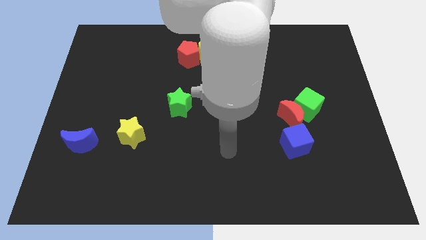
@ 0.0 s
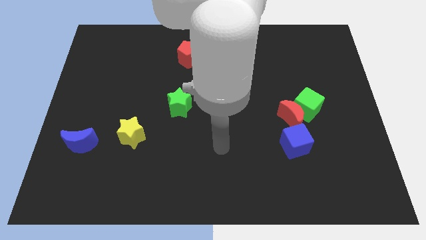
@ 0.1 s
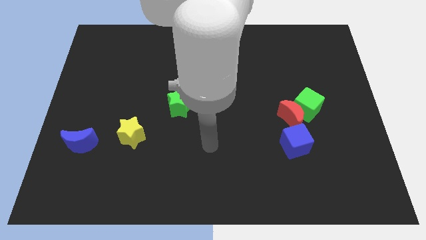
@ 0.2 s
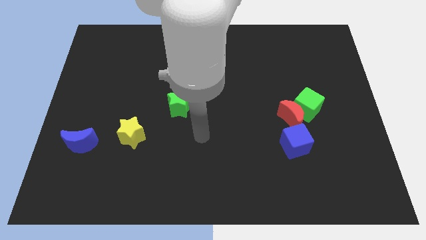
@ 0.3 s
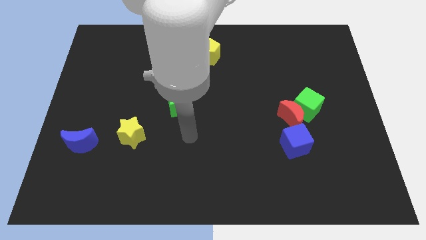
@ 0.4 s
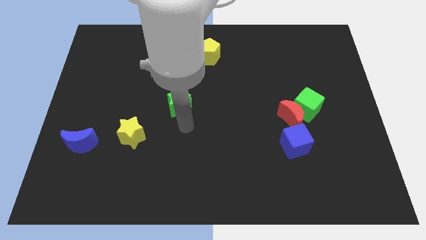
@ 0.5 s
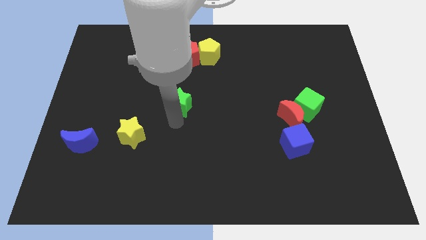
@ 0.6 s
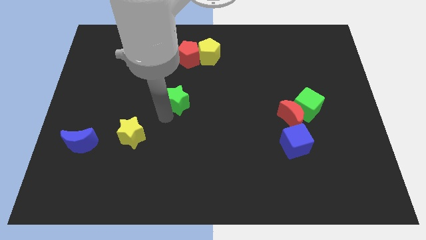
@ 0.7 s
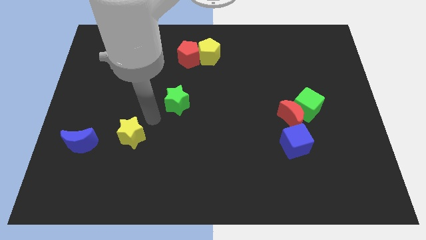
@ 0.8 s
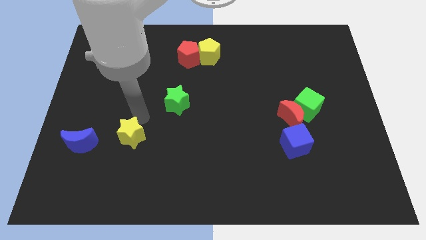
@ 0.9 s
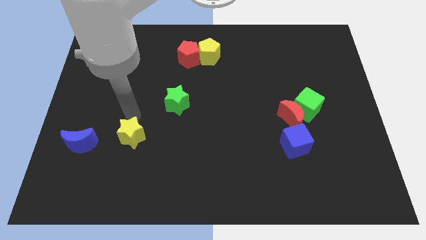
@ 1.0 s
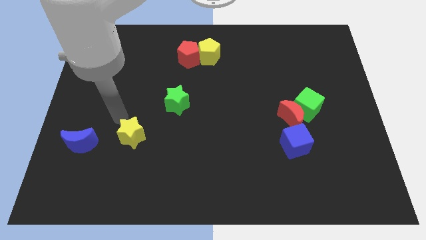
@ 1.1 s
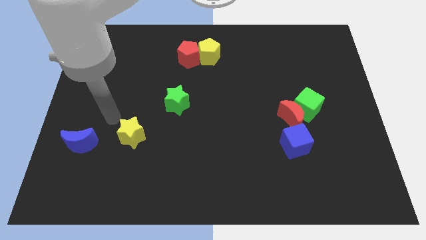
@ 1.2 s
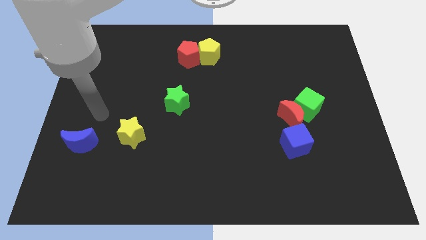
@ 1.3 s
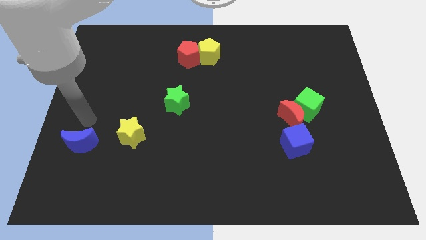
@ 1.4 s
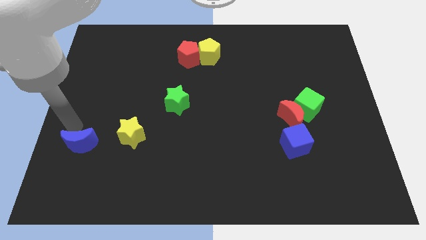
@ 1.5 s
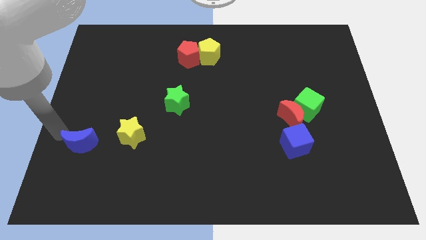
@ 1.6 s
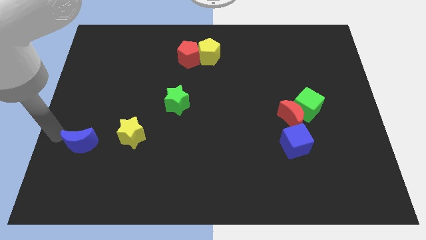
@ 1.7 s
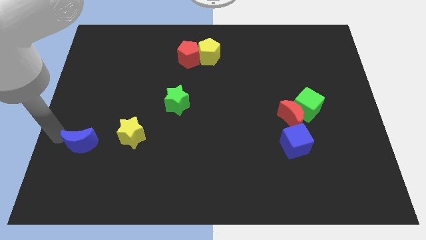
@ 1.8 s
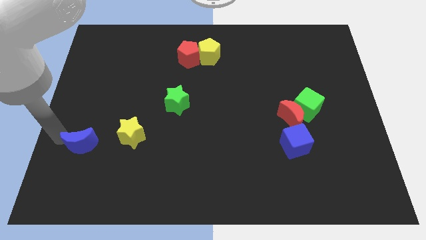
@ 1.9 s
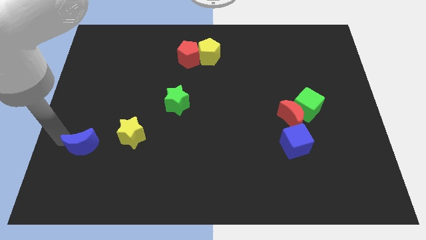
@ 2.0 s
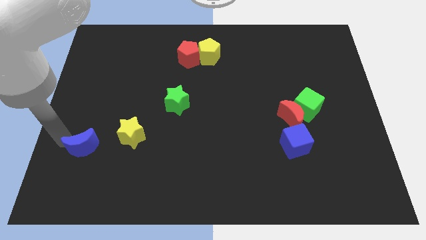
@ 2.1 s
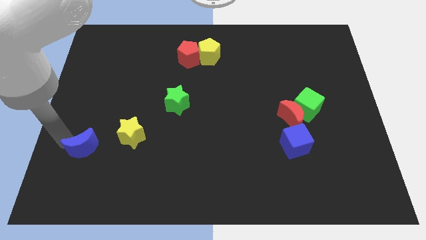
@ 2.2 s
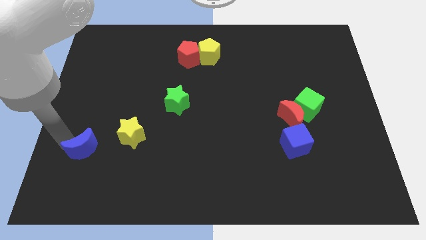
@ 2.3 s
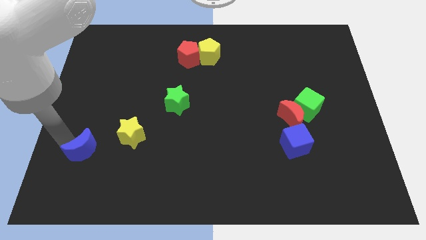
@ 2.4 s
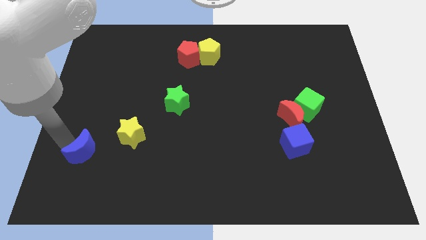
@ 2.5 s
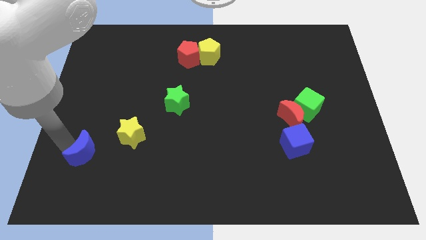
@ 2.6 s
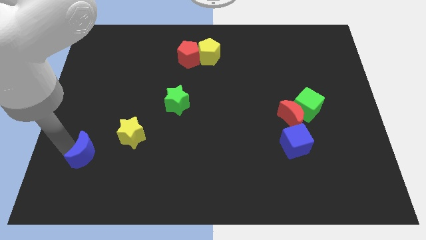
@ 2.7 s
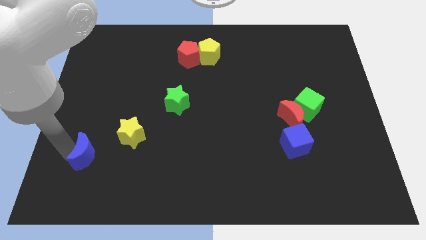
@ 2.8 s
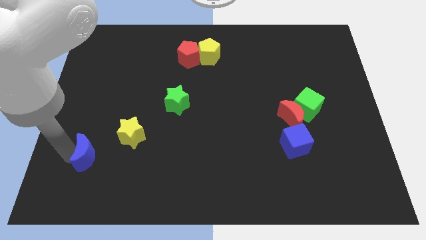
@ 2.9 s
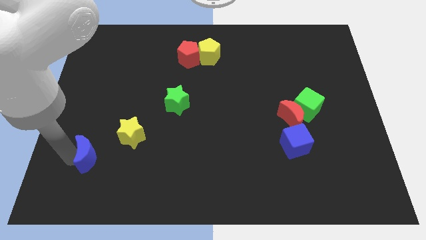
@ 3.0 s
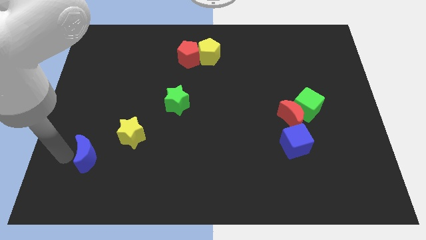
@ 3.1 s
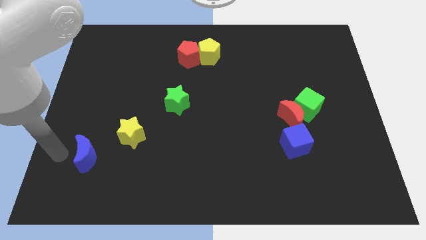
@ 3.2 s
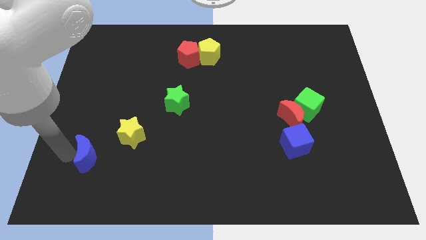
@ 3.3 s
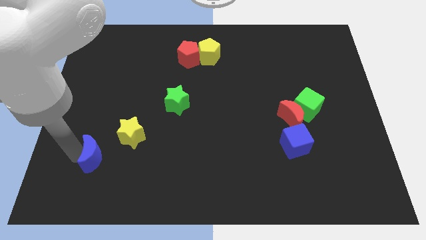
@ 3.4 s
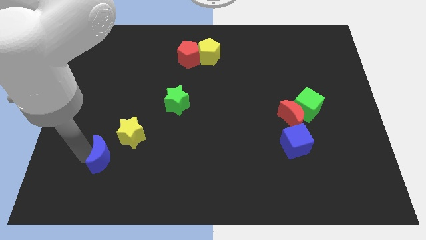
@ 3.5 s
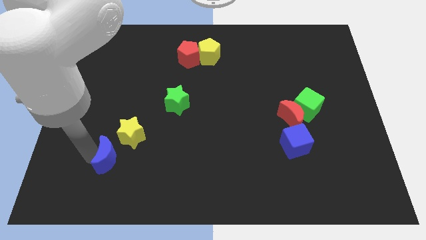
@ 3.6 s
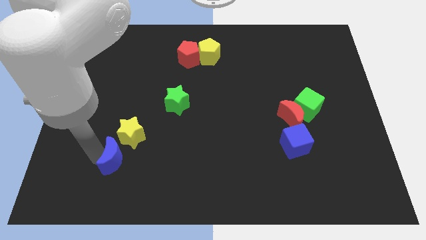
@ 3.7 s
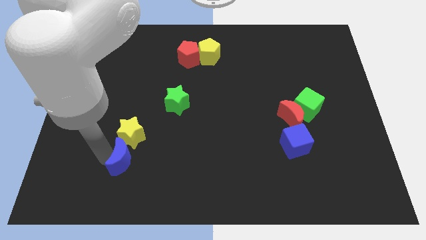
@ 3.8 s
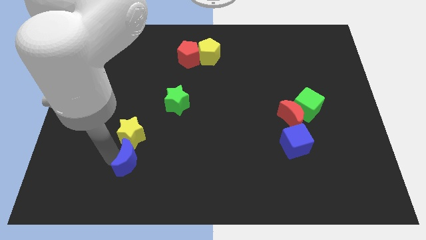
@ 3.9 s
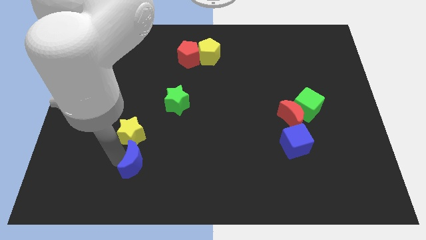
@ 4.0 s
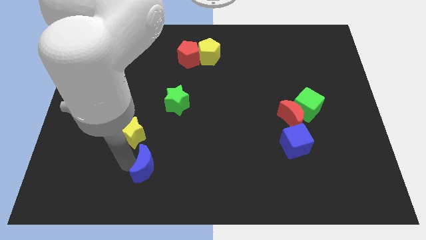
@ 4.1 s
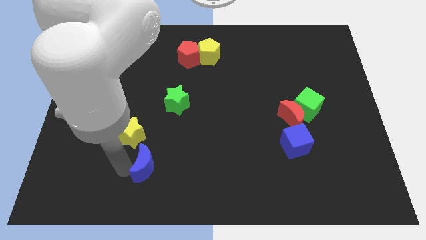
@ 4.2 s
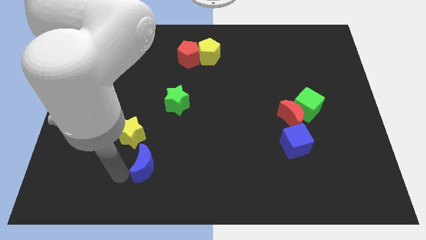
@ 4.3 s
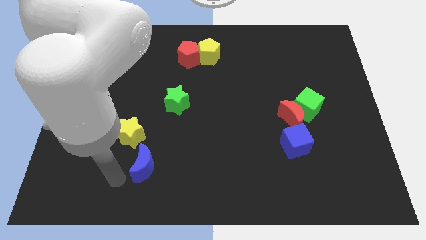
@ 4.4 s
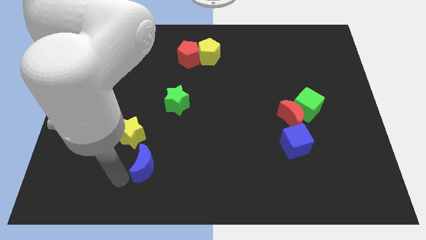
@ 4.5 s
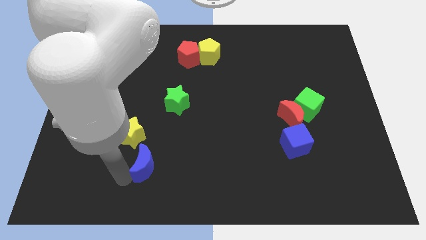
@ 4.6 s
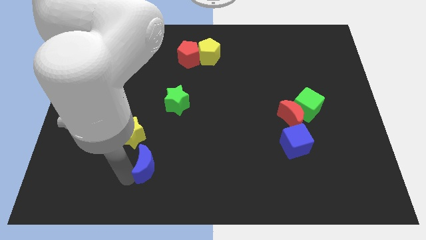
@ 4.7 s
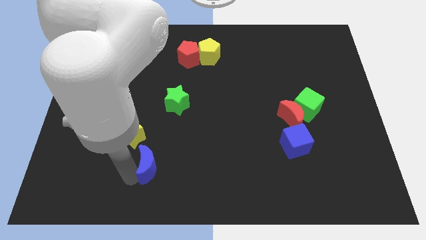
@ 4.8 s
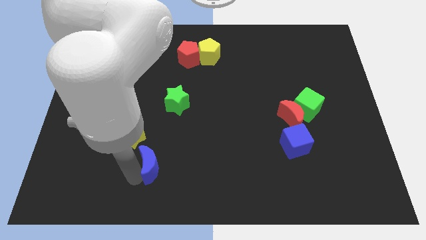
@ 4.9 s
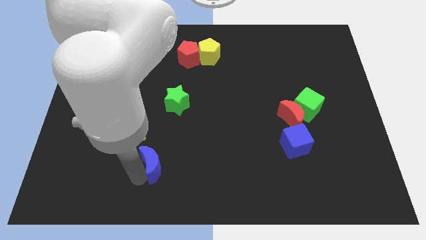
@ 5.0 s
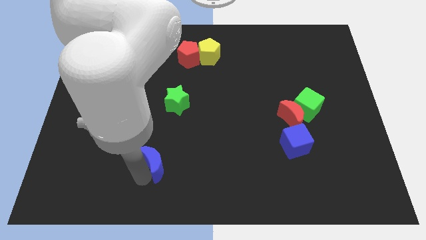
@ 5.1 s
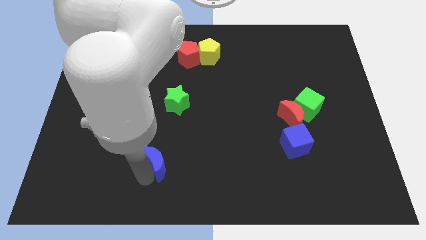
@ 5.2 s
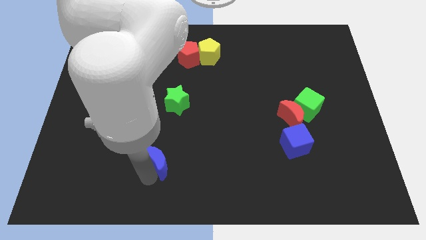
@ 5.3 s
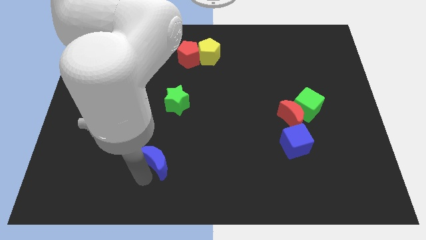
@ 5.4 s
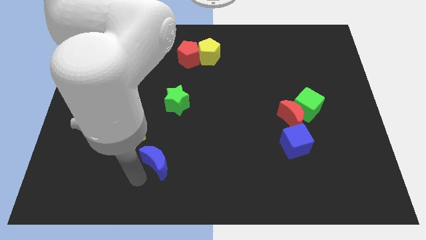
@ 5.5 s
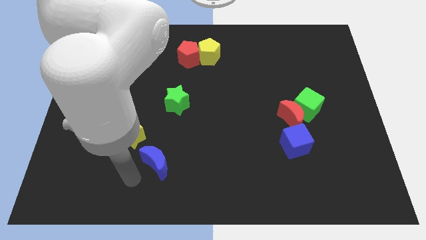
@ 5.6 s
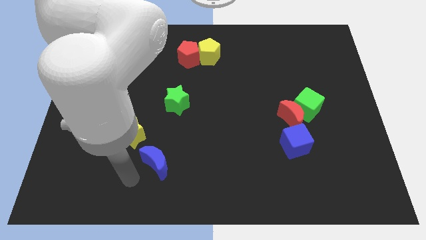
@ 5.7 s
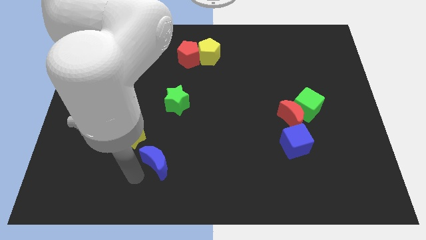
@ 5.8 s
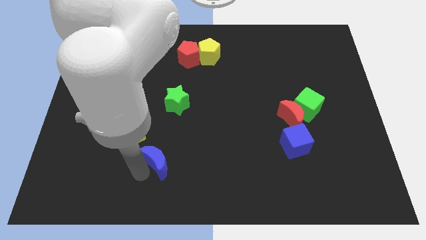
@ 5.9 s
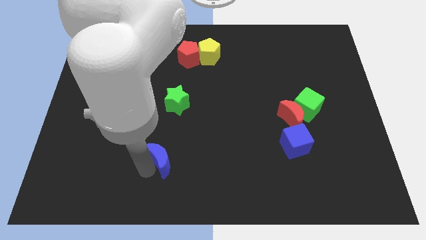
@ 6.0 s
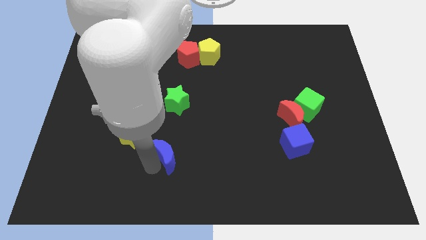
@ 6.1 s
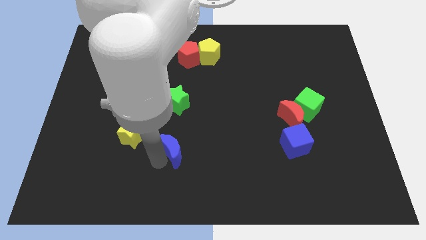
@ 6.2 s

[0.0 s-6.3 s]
move the blue moon to the right

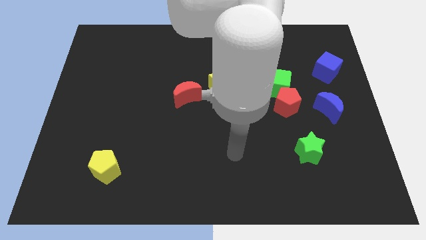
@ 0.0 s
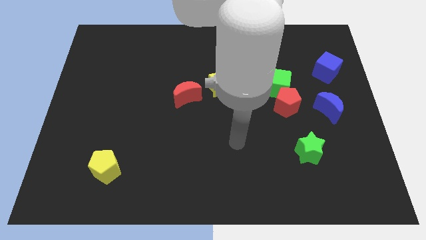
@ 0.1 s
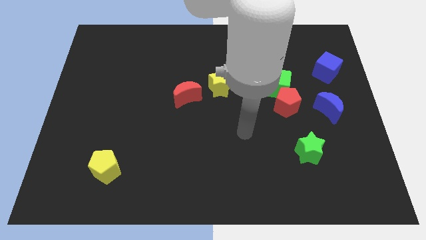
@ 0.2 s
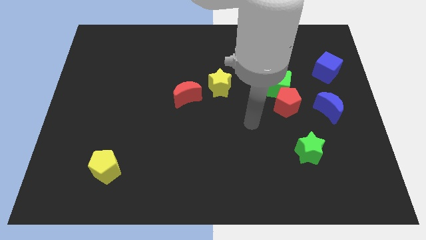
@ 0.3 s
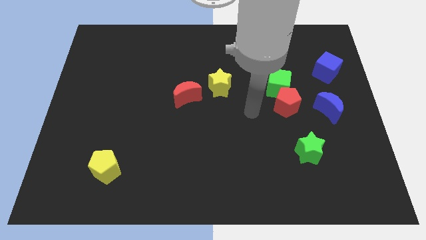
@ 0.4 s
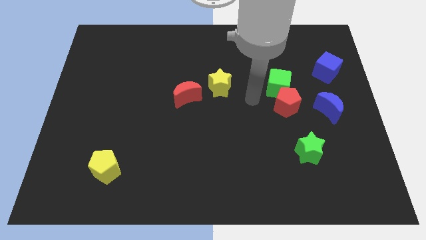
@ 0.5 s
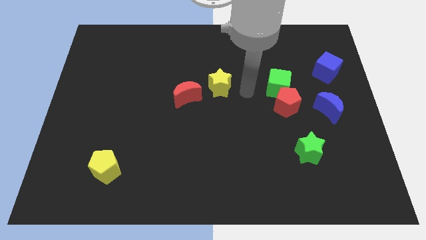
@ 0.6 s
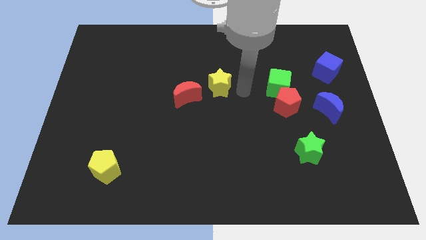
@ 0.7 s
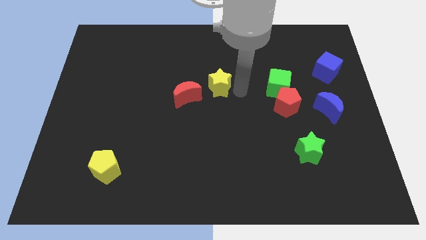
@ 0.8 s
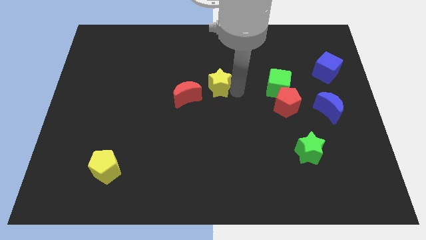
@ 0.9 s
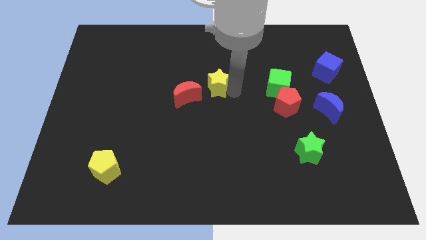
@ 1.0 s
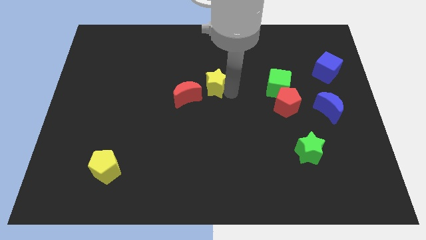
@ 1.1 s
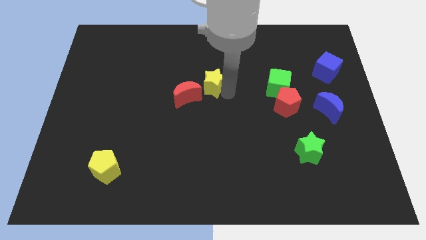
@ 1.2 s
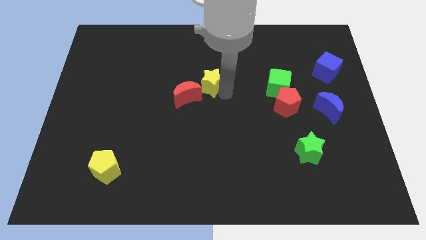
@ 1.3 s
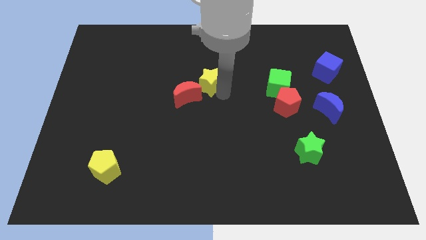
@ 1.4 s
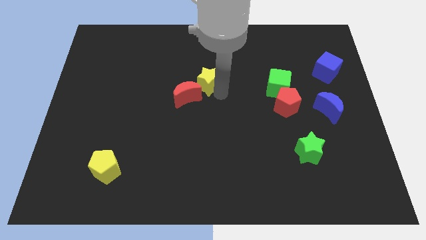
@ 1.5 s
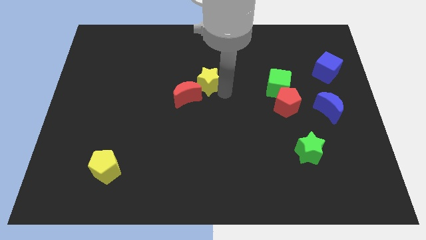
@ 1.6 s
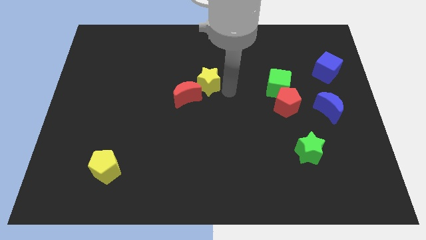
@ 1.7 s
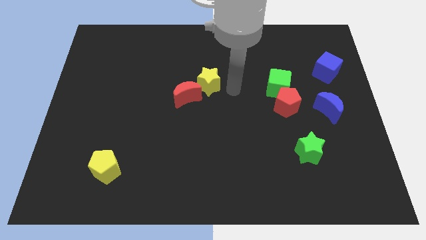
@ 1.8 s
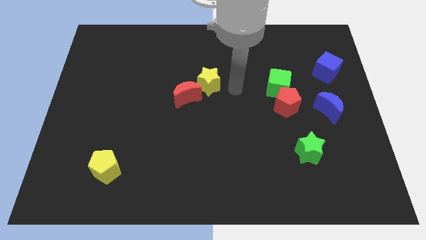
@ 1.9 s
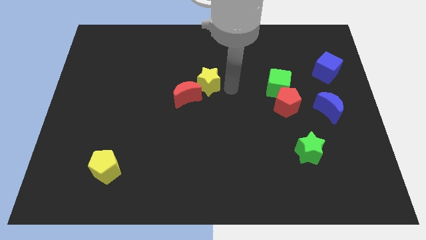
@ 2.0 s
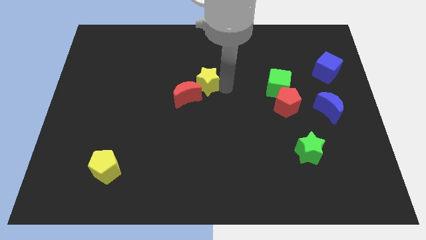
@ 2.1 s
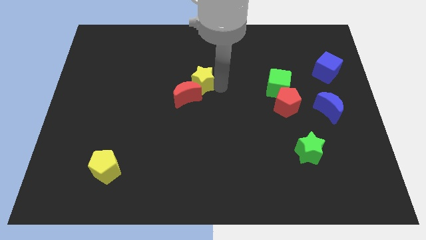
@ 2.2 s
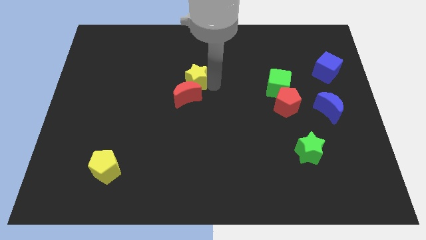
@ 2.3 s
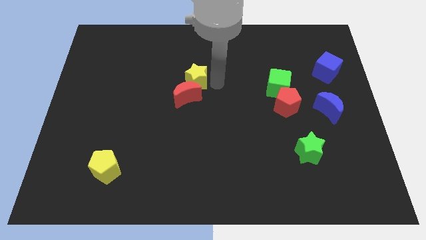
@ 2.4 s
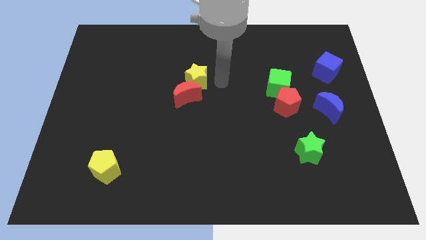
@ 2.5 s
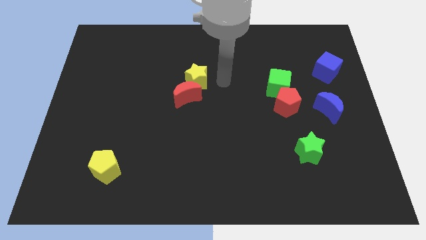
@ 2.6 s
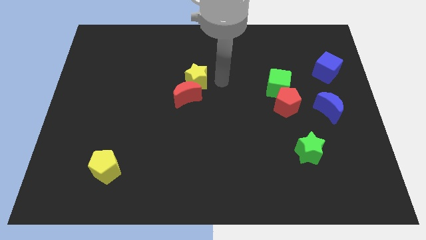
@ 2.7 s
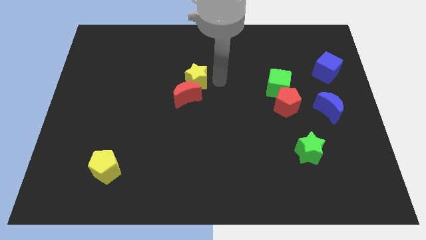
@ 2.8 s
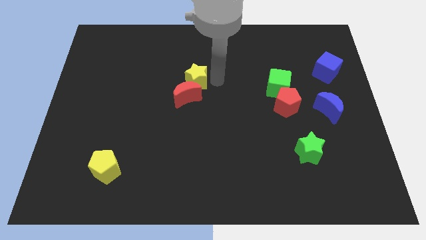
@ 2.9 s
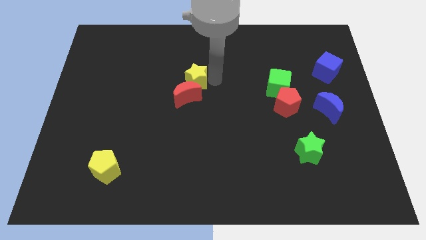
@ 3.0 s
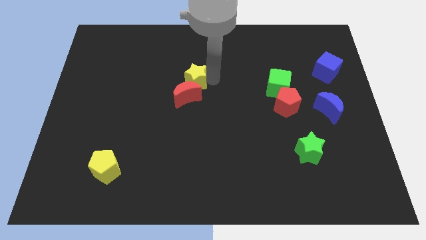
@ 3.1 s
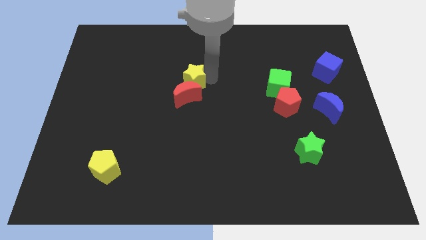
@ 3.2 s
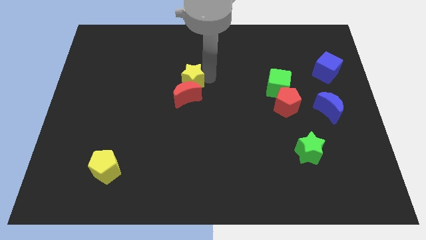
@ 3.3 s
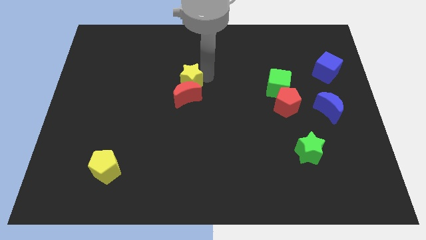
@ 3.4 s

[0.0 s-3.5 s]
slightly push the yellow star to the left
